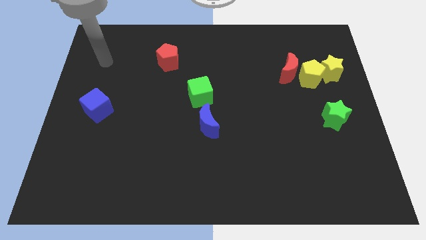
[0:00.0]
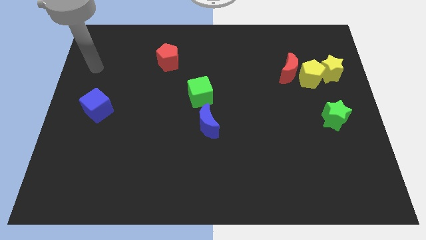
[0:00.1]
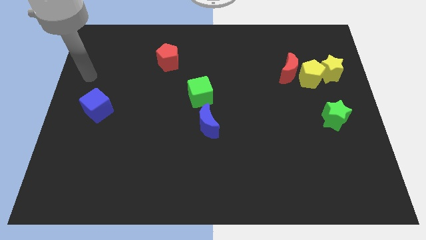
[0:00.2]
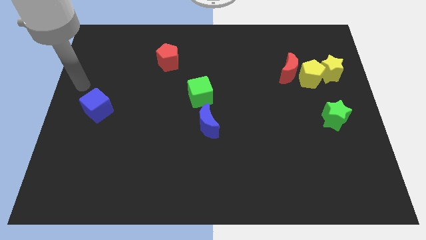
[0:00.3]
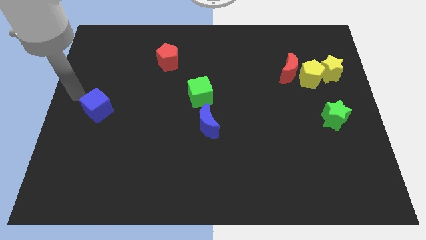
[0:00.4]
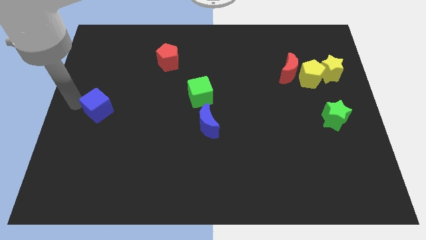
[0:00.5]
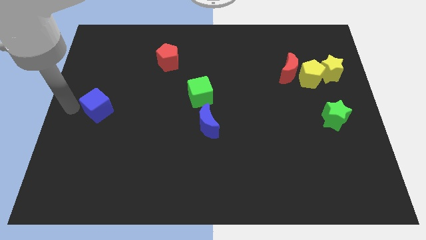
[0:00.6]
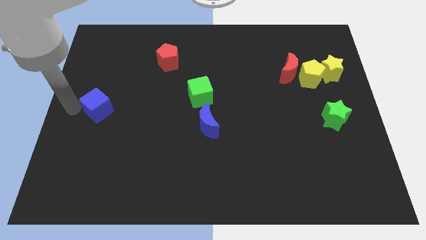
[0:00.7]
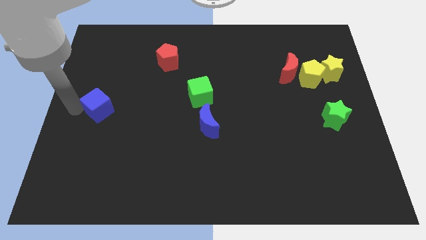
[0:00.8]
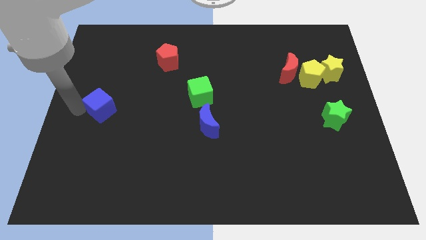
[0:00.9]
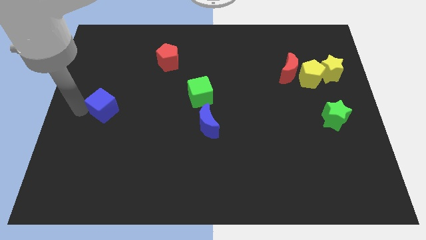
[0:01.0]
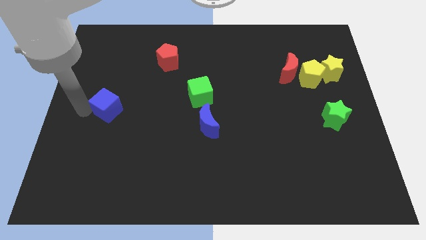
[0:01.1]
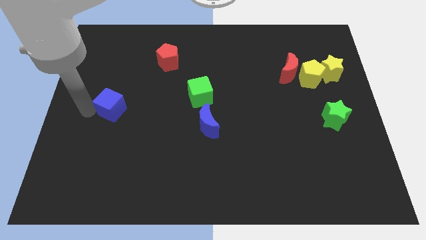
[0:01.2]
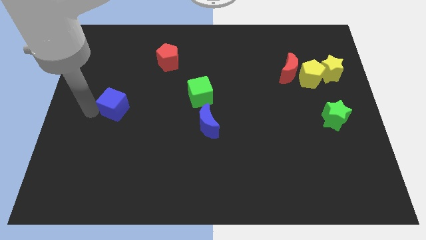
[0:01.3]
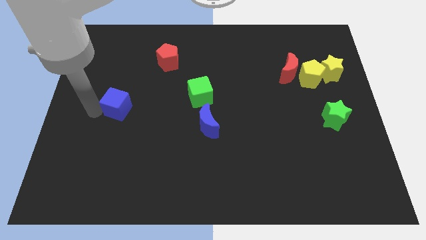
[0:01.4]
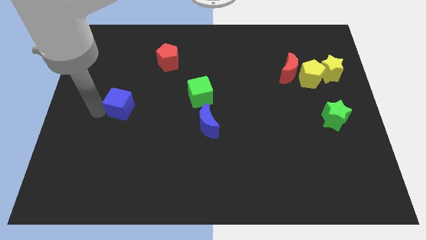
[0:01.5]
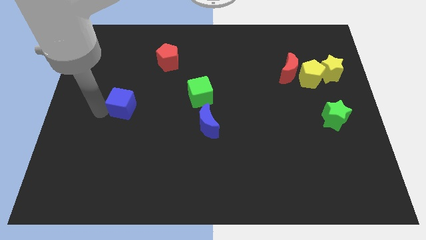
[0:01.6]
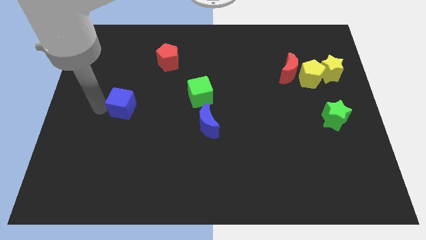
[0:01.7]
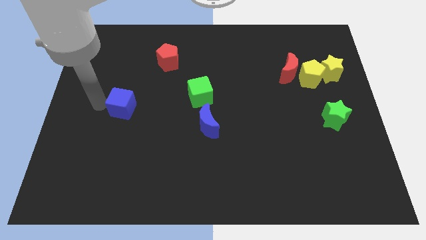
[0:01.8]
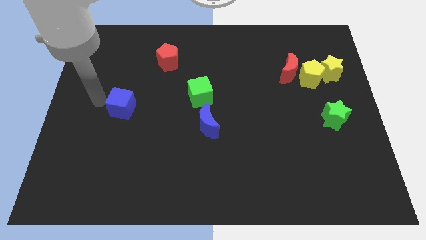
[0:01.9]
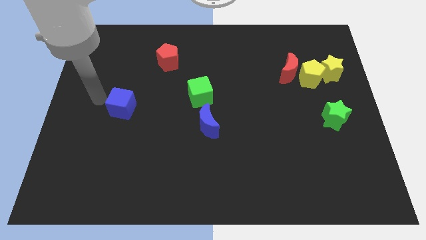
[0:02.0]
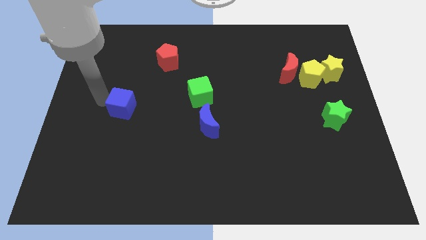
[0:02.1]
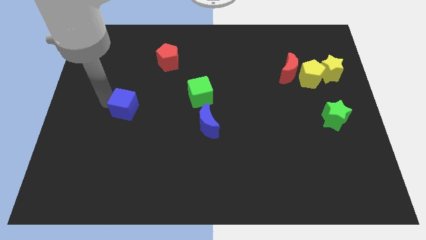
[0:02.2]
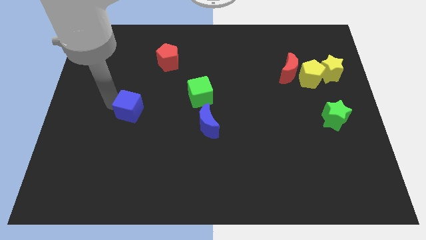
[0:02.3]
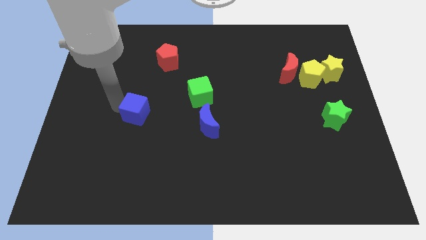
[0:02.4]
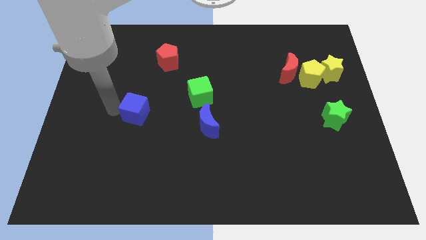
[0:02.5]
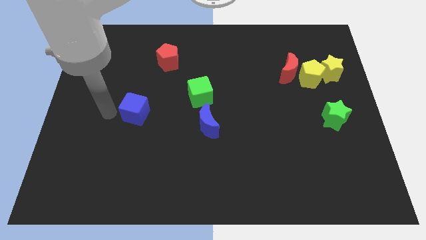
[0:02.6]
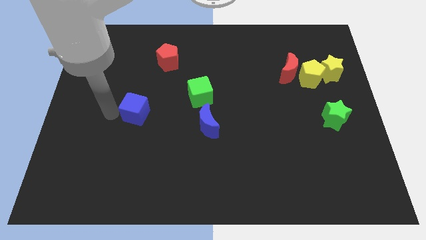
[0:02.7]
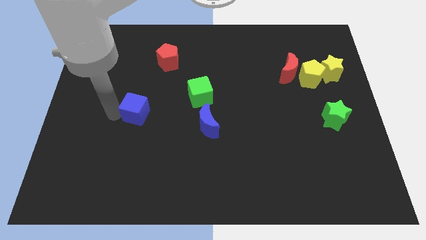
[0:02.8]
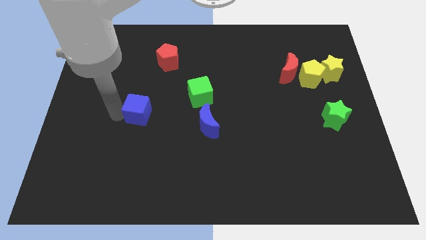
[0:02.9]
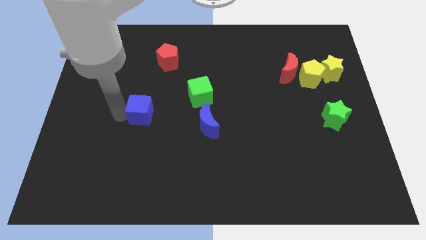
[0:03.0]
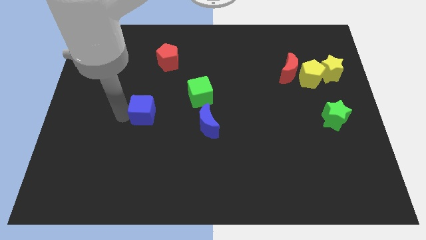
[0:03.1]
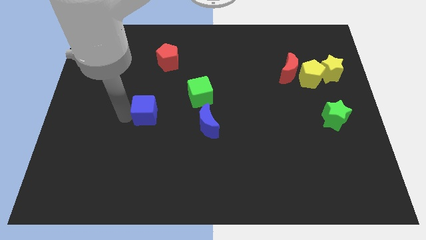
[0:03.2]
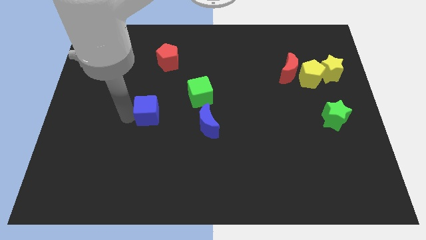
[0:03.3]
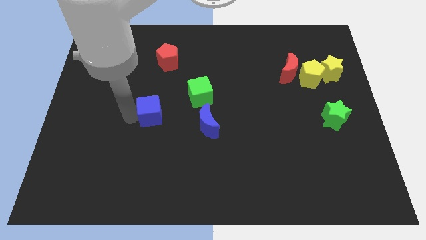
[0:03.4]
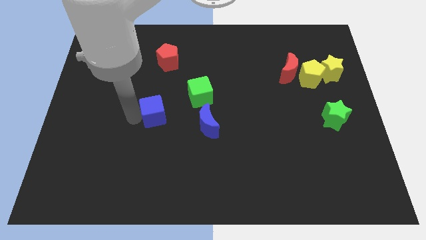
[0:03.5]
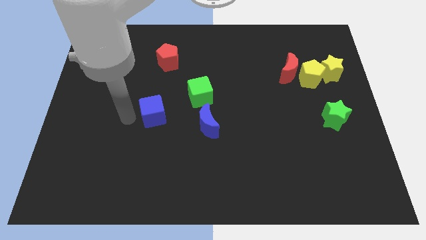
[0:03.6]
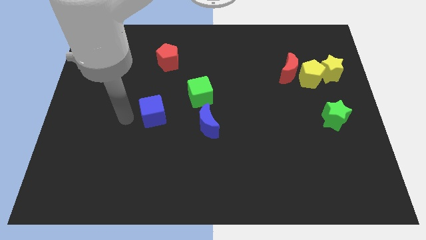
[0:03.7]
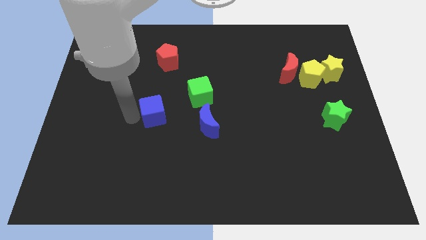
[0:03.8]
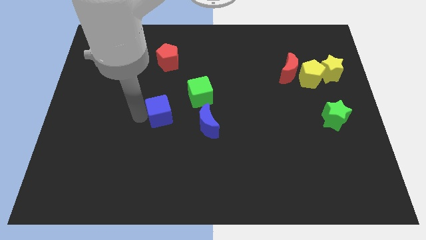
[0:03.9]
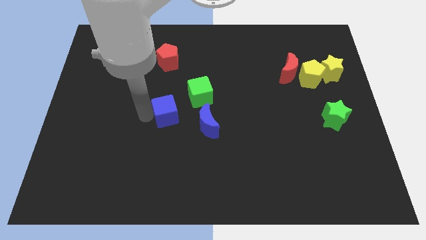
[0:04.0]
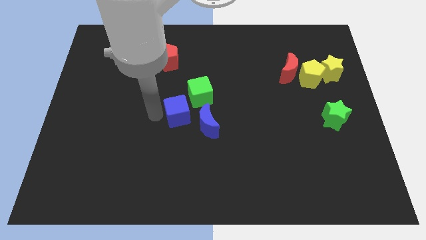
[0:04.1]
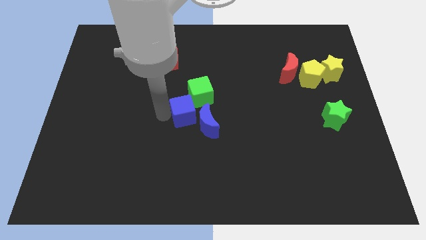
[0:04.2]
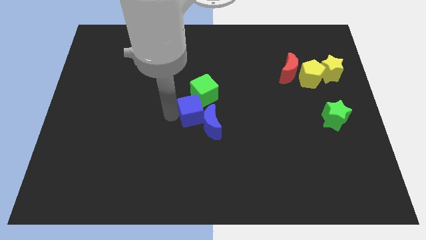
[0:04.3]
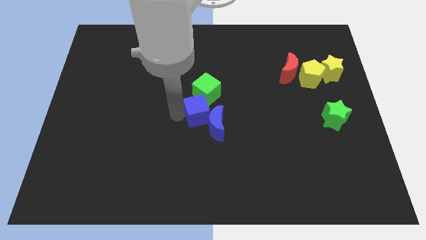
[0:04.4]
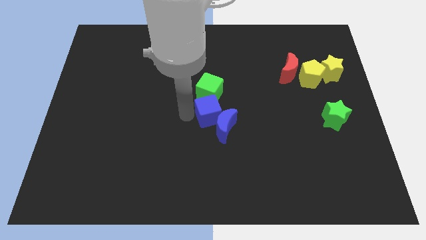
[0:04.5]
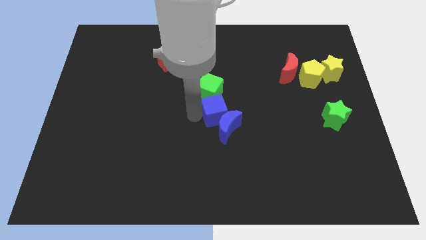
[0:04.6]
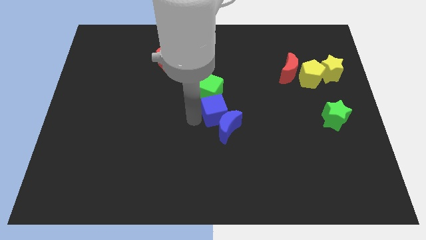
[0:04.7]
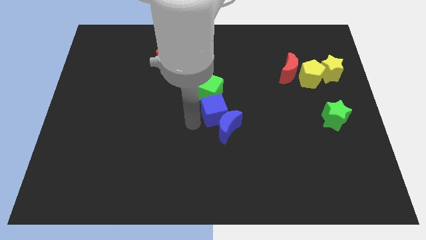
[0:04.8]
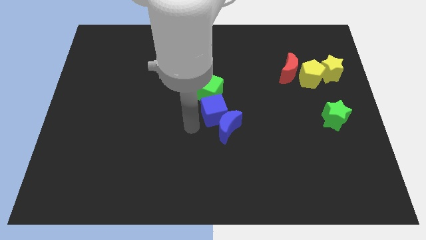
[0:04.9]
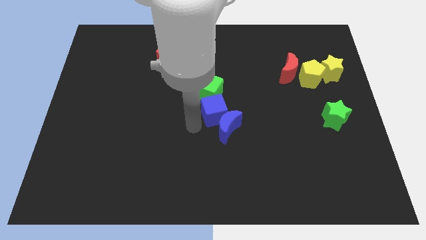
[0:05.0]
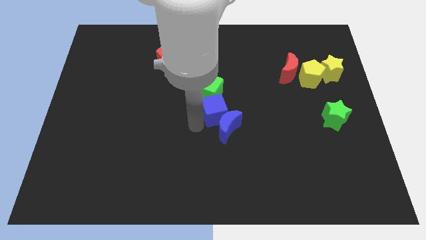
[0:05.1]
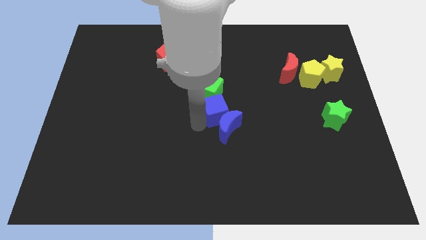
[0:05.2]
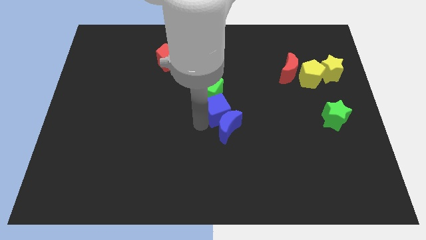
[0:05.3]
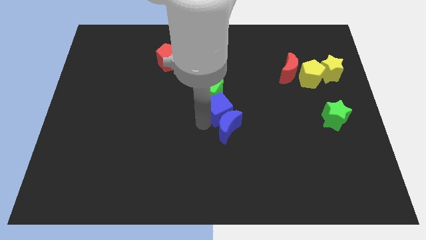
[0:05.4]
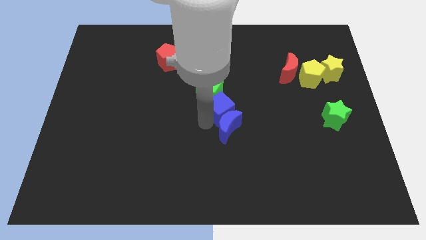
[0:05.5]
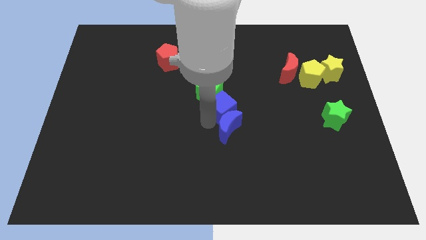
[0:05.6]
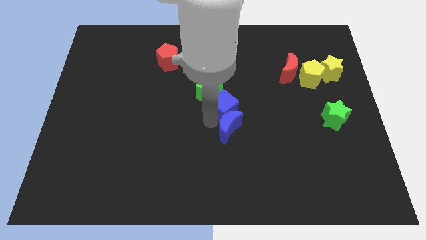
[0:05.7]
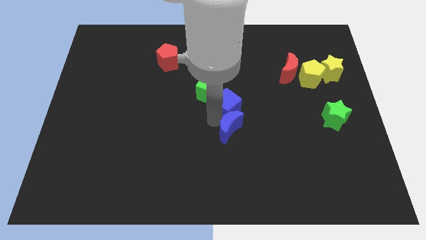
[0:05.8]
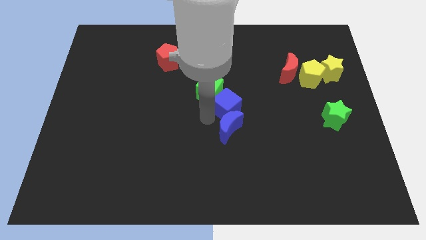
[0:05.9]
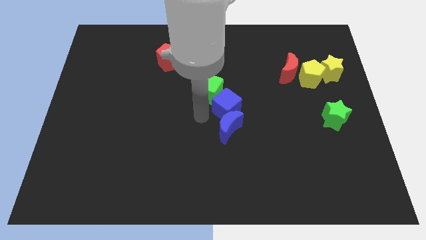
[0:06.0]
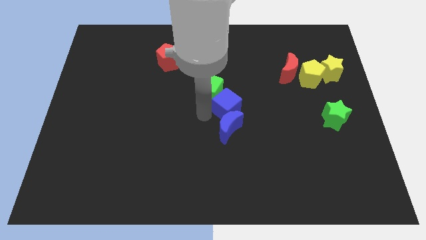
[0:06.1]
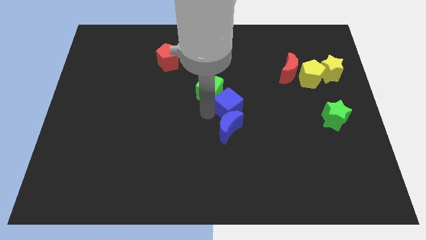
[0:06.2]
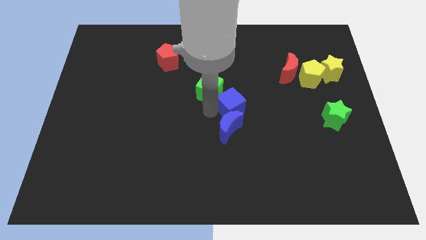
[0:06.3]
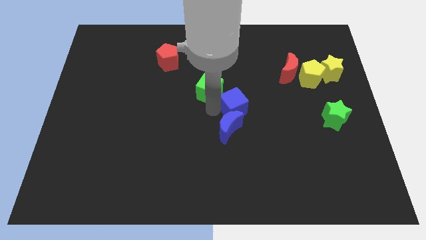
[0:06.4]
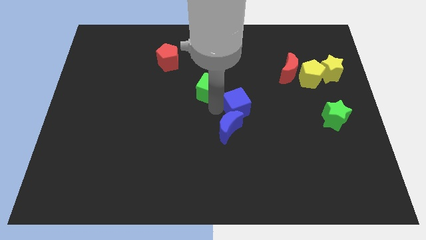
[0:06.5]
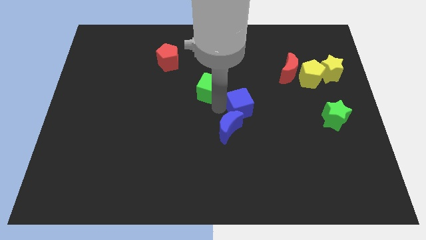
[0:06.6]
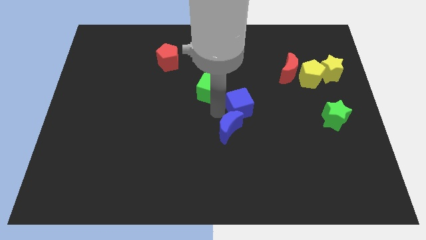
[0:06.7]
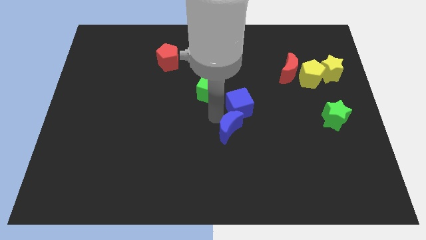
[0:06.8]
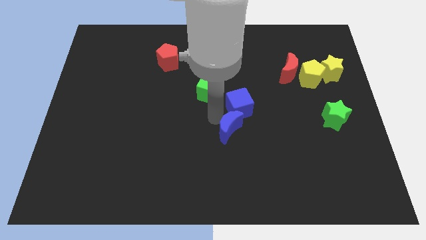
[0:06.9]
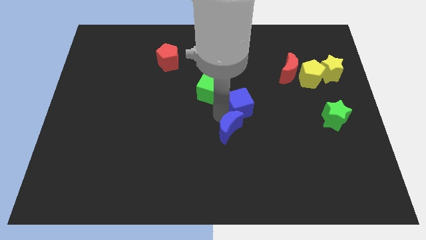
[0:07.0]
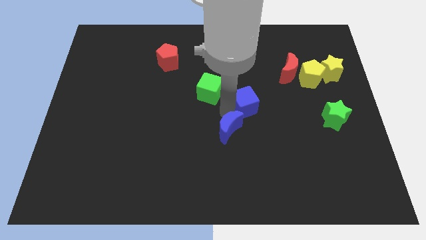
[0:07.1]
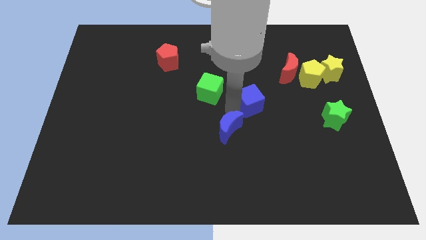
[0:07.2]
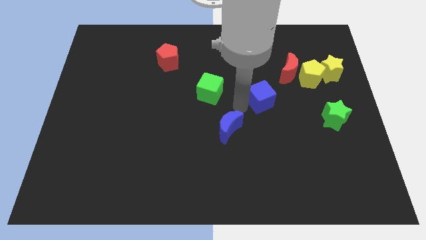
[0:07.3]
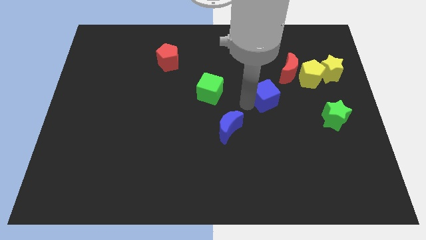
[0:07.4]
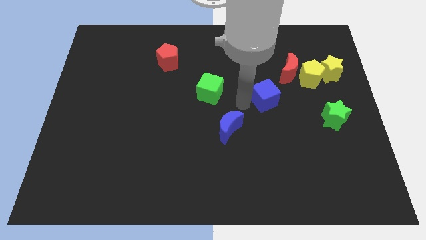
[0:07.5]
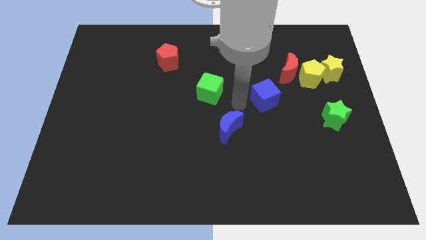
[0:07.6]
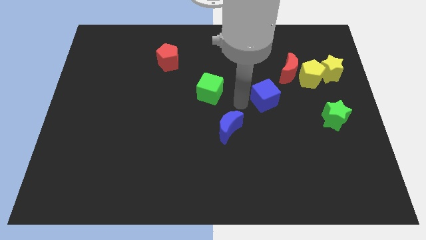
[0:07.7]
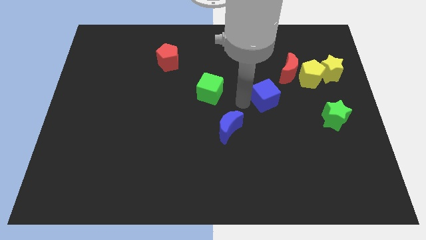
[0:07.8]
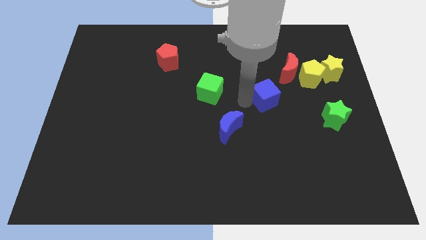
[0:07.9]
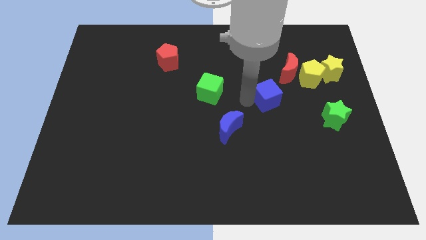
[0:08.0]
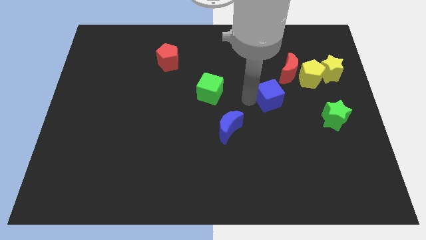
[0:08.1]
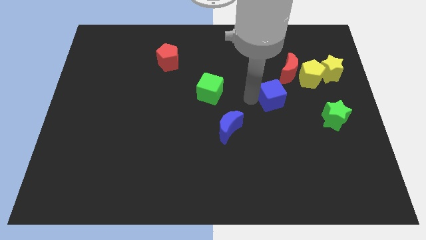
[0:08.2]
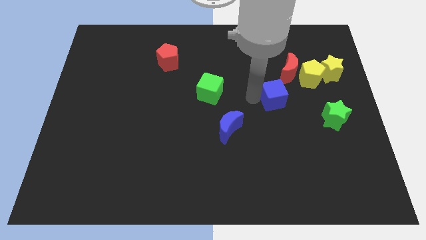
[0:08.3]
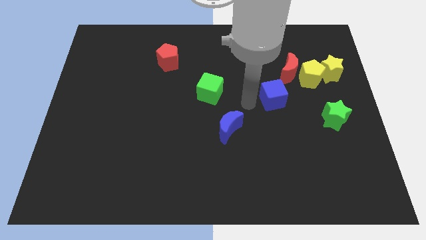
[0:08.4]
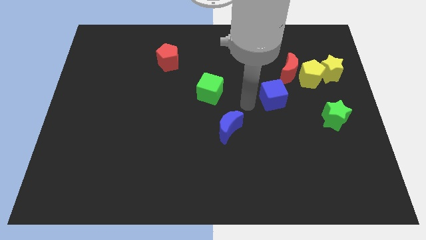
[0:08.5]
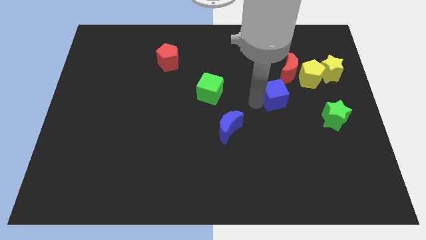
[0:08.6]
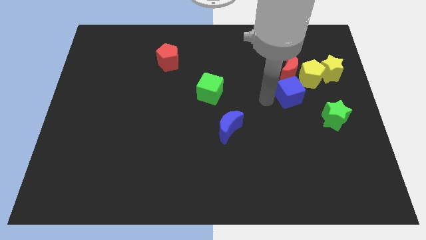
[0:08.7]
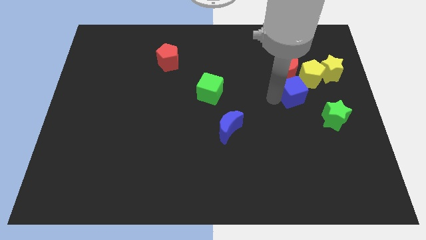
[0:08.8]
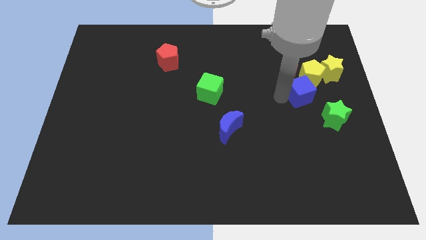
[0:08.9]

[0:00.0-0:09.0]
put the blue cube to the bottom right of the red moon
